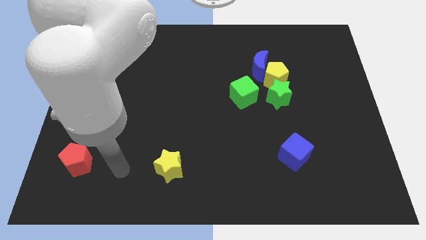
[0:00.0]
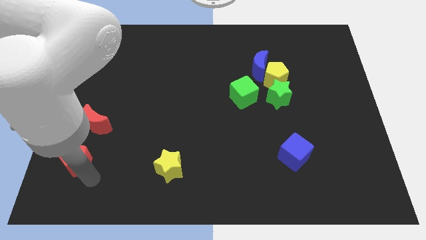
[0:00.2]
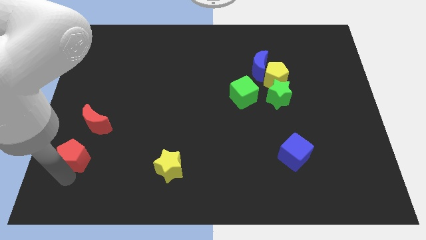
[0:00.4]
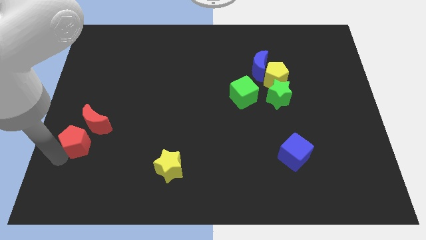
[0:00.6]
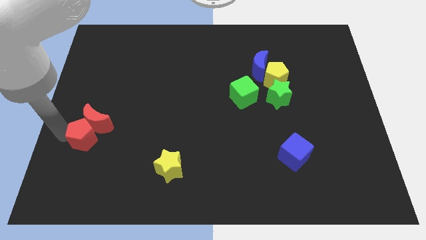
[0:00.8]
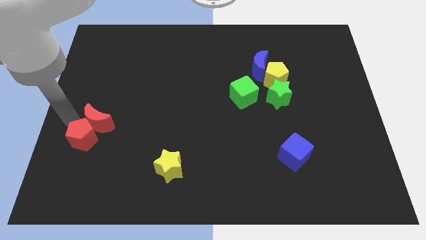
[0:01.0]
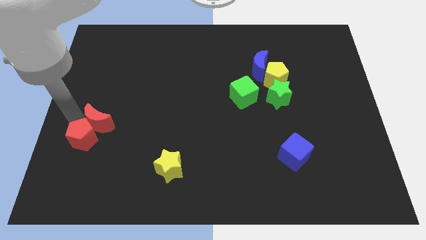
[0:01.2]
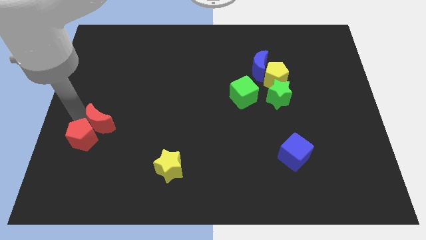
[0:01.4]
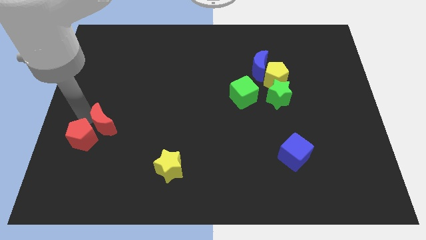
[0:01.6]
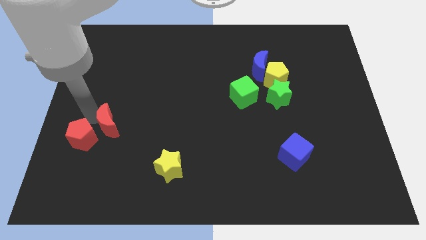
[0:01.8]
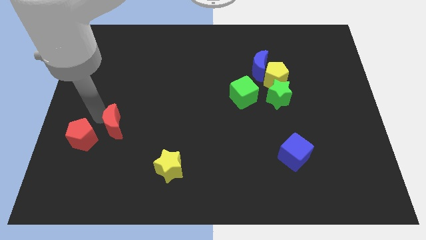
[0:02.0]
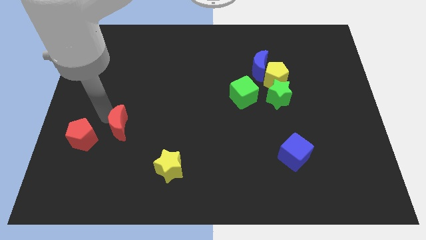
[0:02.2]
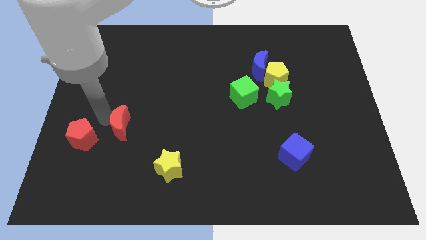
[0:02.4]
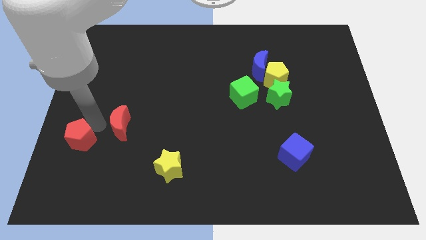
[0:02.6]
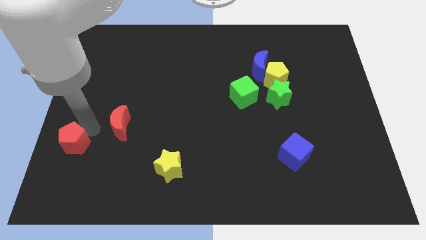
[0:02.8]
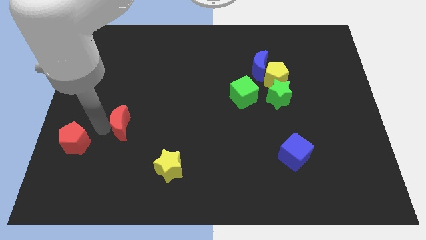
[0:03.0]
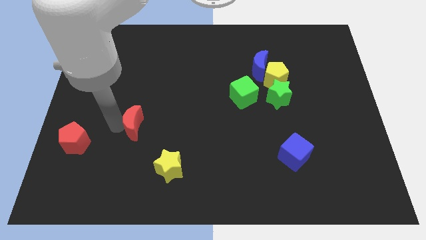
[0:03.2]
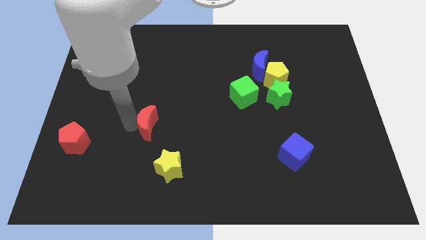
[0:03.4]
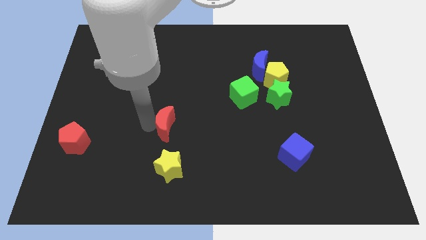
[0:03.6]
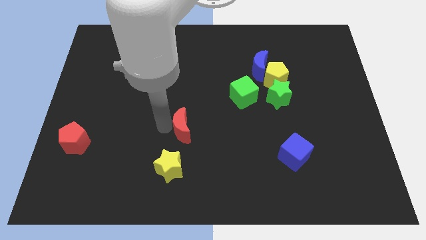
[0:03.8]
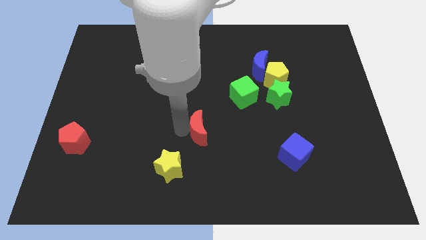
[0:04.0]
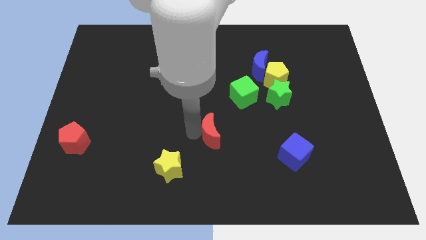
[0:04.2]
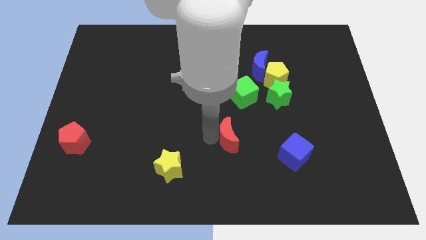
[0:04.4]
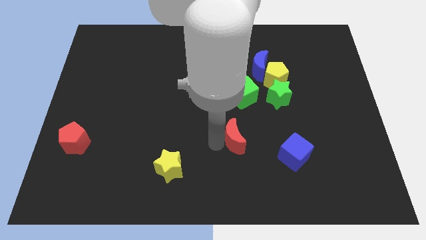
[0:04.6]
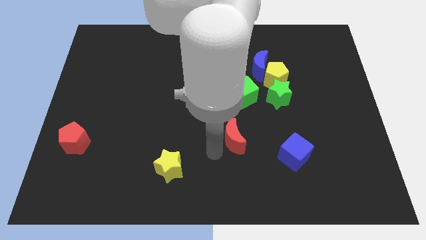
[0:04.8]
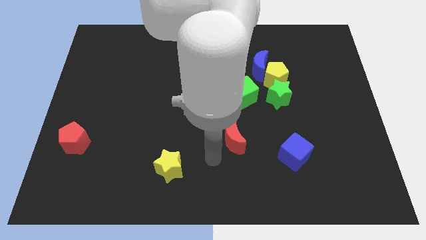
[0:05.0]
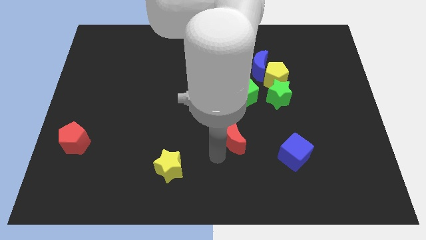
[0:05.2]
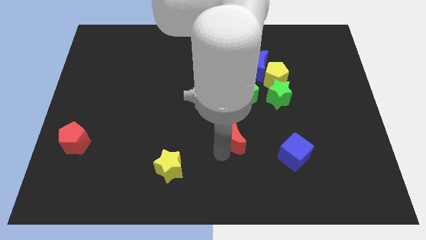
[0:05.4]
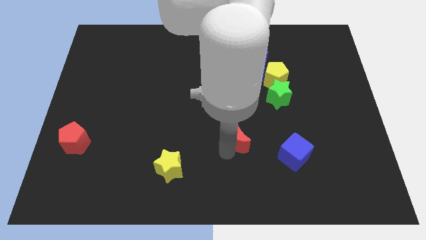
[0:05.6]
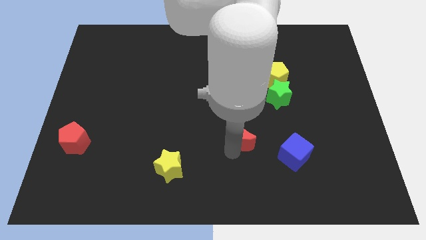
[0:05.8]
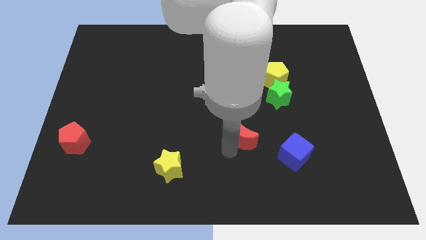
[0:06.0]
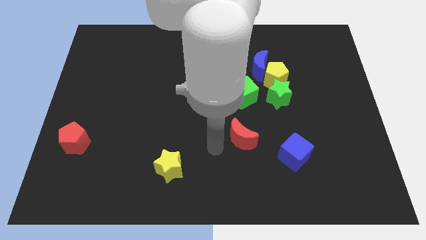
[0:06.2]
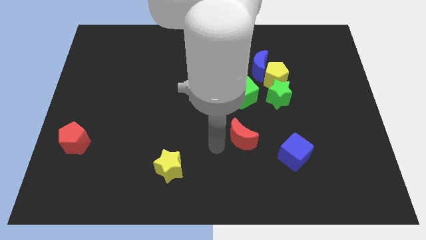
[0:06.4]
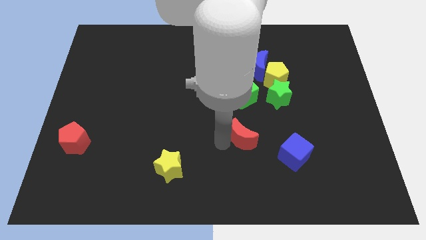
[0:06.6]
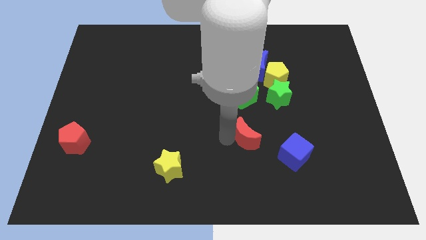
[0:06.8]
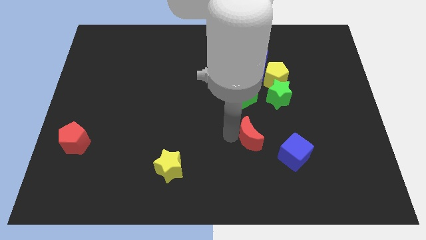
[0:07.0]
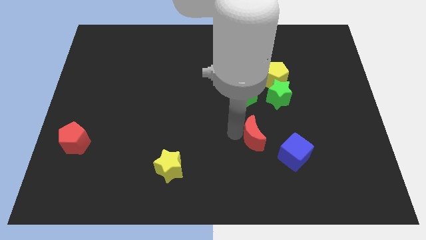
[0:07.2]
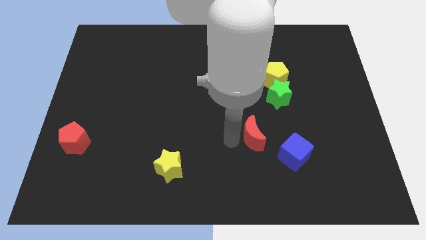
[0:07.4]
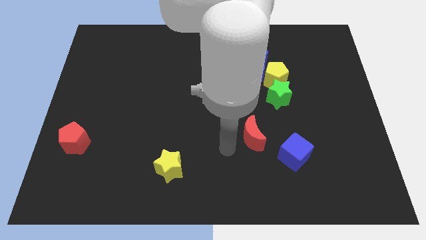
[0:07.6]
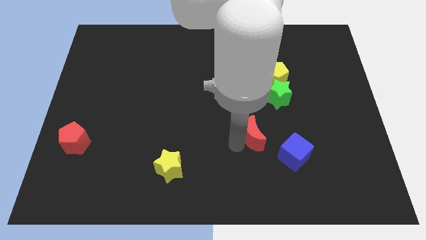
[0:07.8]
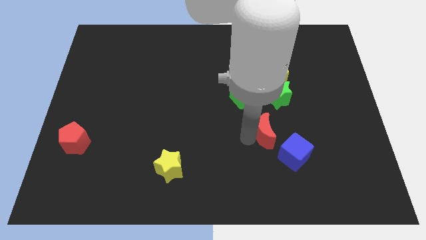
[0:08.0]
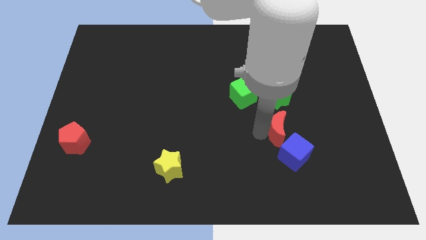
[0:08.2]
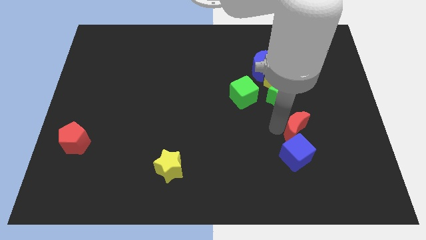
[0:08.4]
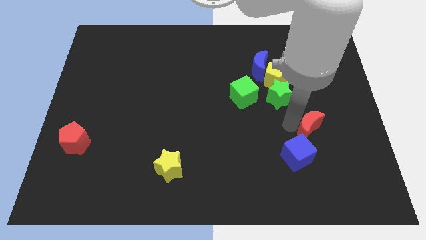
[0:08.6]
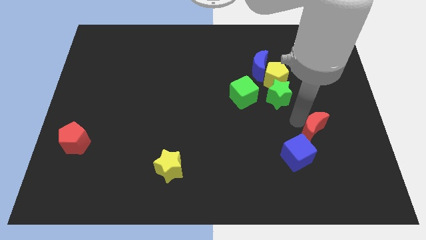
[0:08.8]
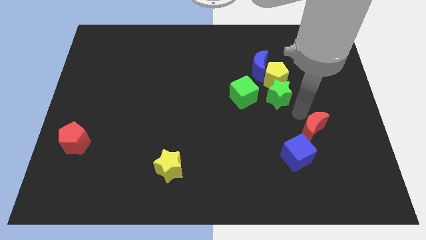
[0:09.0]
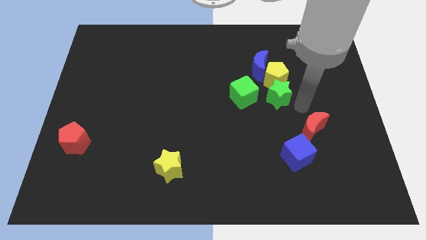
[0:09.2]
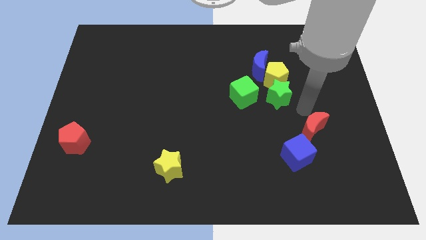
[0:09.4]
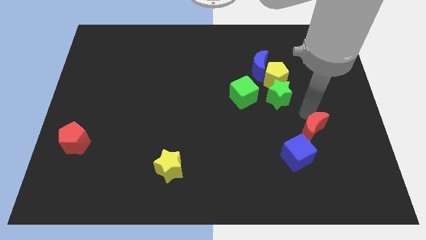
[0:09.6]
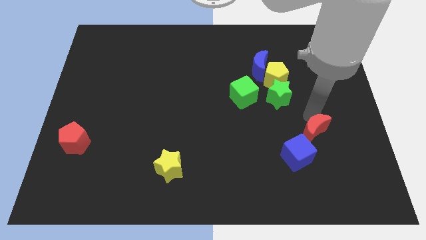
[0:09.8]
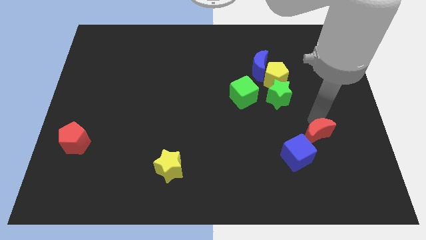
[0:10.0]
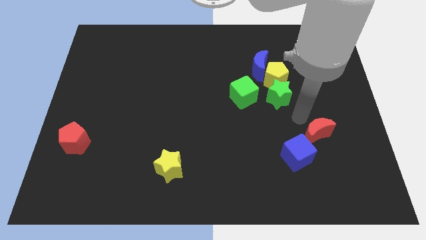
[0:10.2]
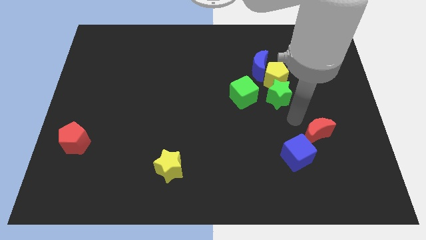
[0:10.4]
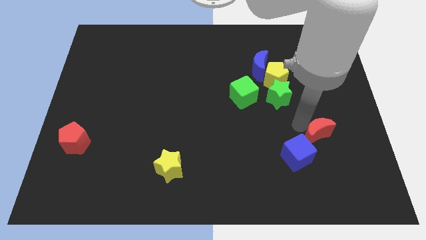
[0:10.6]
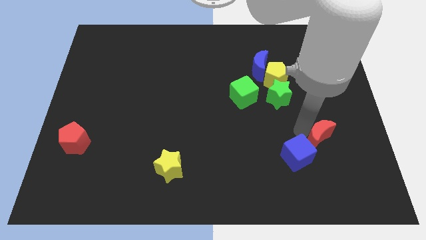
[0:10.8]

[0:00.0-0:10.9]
move the red moon to the right side of the blue cube

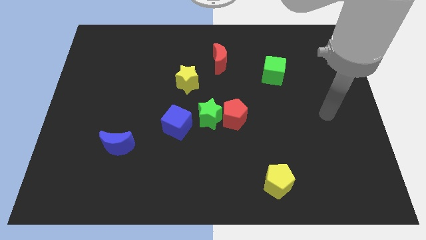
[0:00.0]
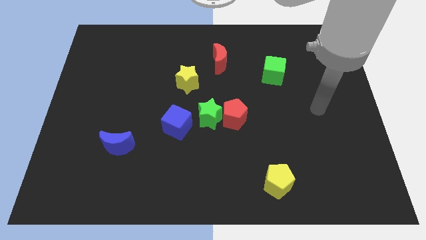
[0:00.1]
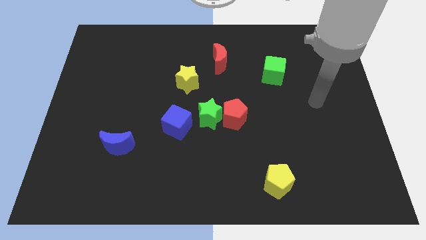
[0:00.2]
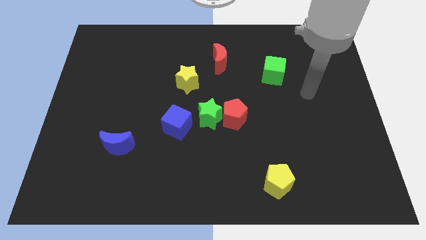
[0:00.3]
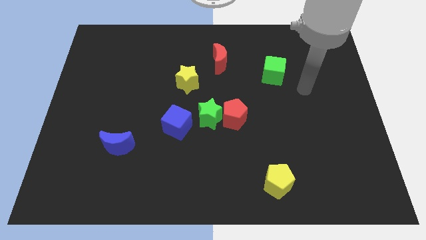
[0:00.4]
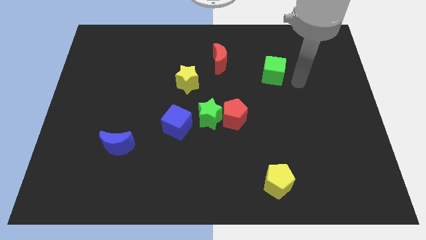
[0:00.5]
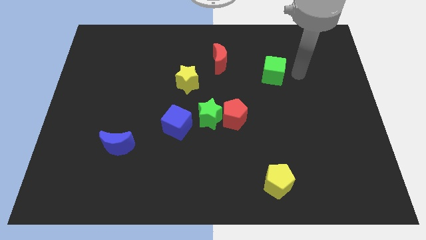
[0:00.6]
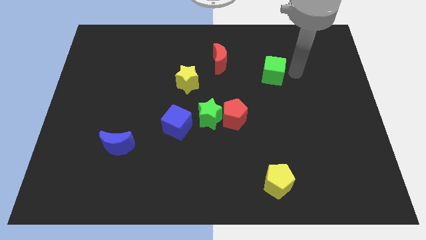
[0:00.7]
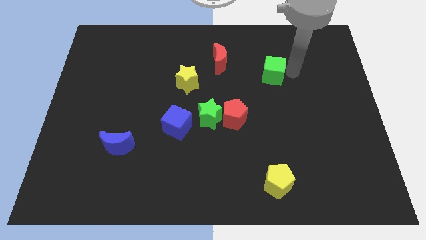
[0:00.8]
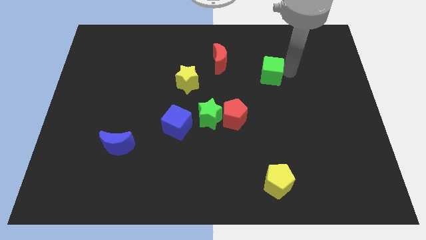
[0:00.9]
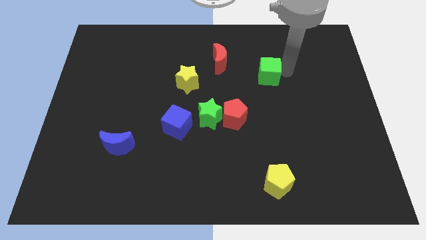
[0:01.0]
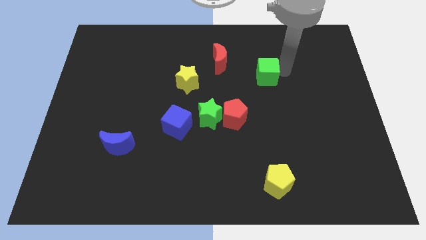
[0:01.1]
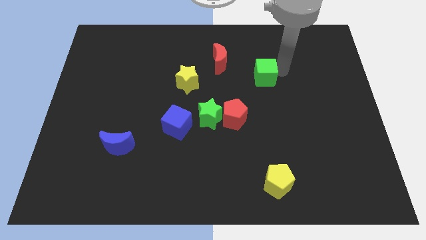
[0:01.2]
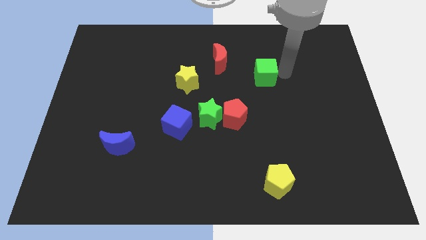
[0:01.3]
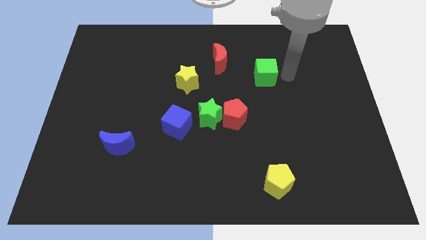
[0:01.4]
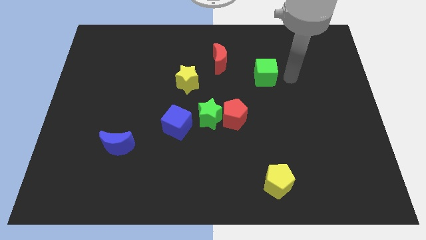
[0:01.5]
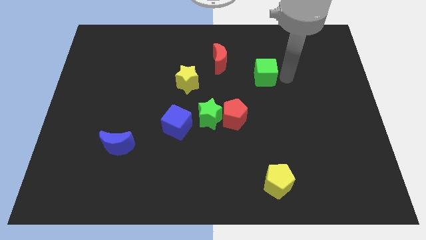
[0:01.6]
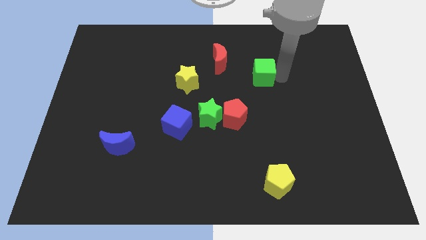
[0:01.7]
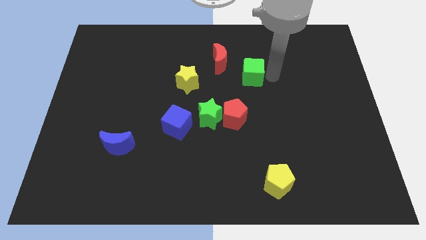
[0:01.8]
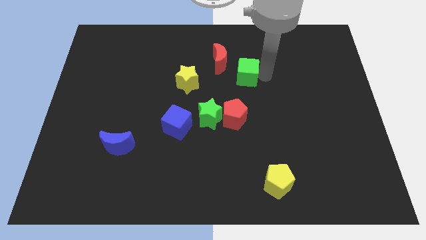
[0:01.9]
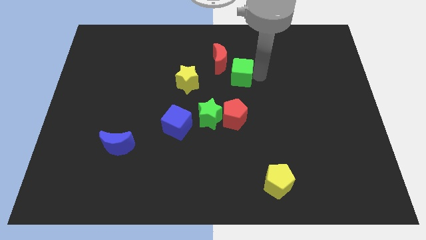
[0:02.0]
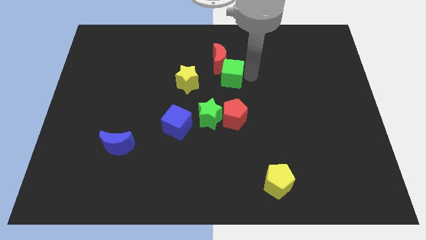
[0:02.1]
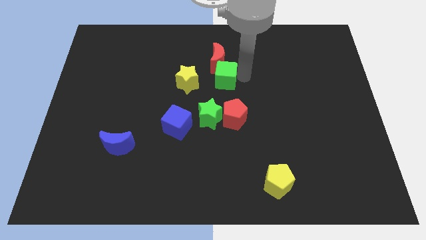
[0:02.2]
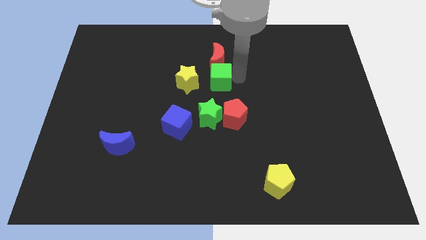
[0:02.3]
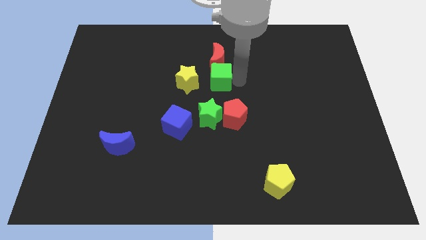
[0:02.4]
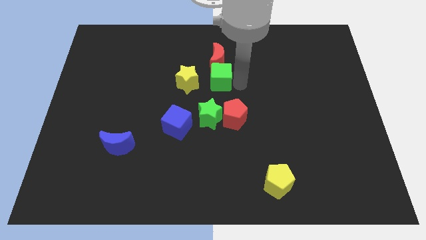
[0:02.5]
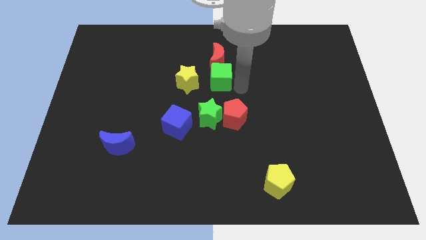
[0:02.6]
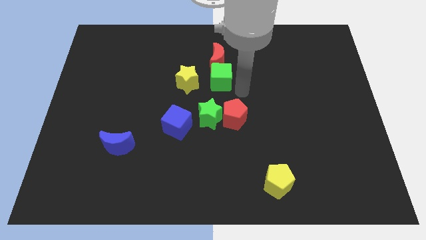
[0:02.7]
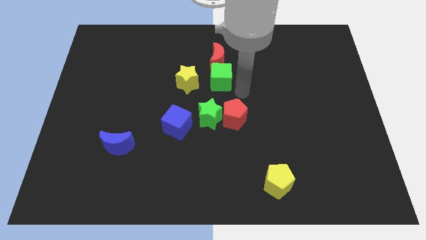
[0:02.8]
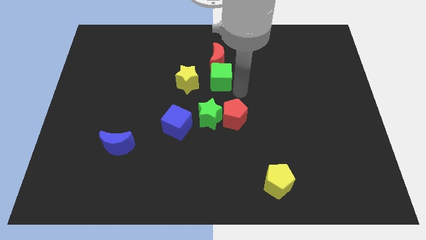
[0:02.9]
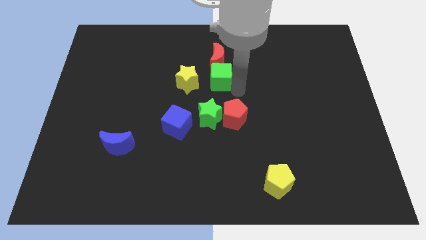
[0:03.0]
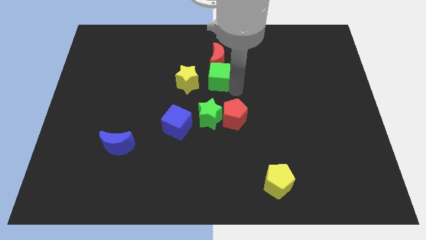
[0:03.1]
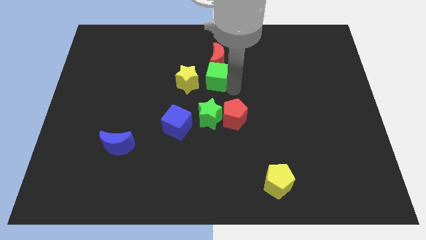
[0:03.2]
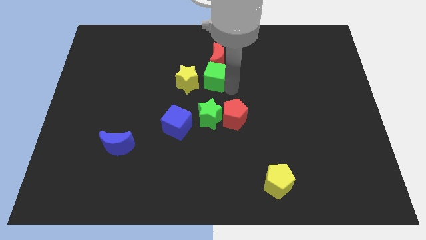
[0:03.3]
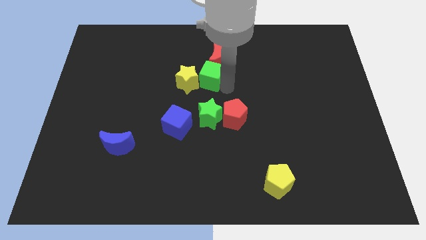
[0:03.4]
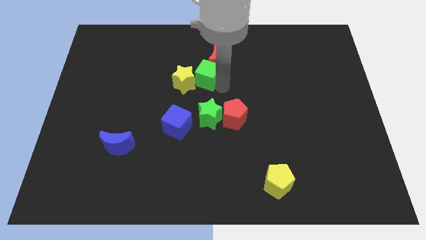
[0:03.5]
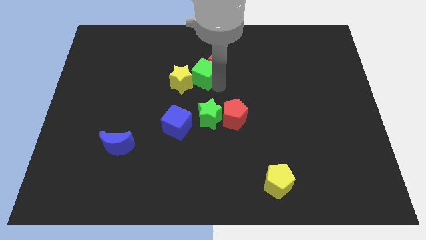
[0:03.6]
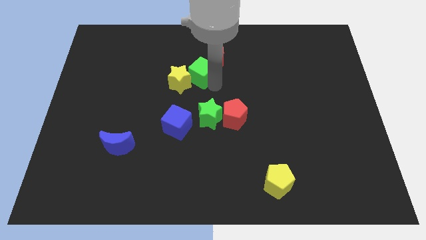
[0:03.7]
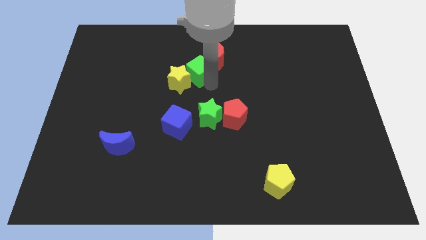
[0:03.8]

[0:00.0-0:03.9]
push the green cube to the left of the red moon
